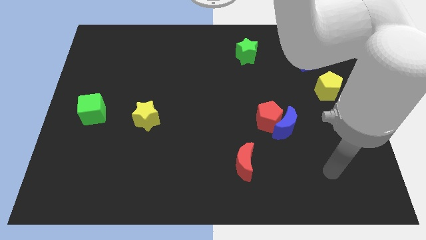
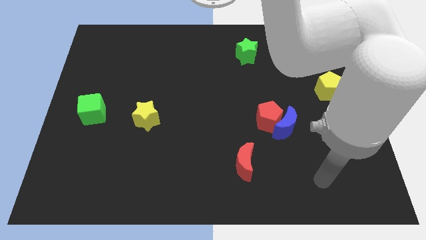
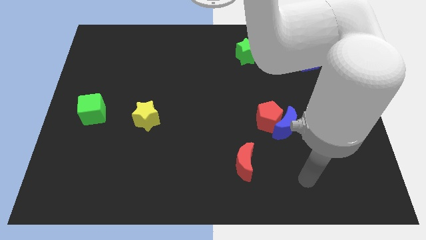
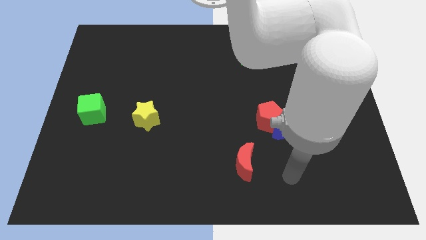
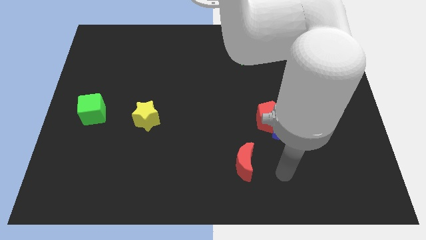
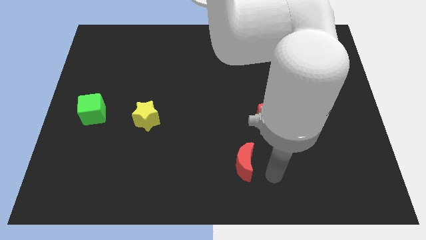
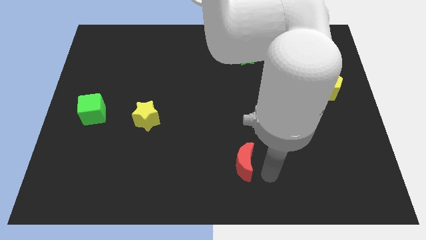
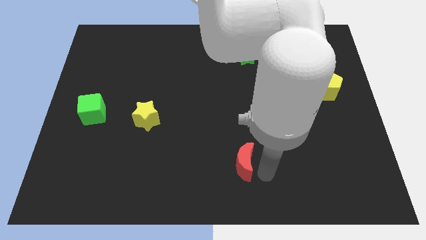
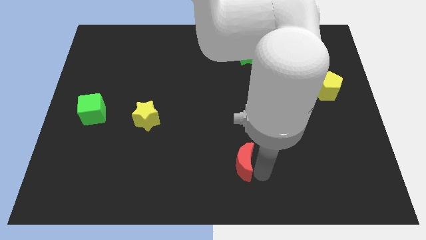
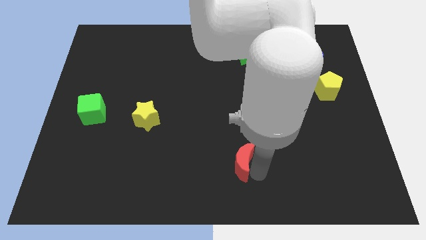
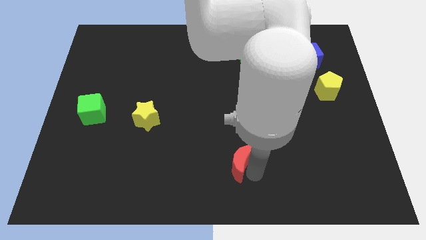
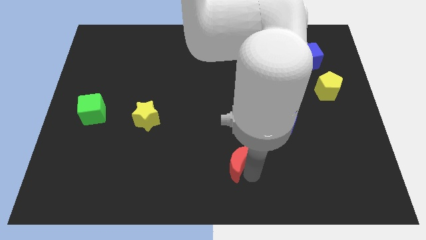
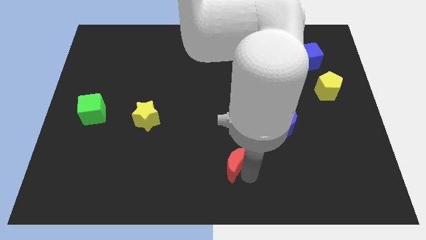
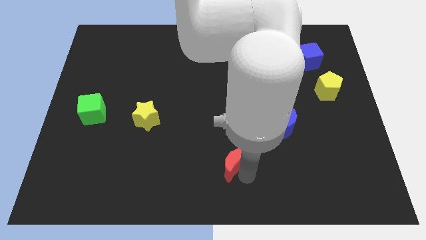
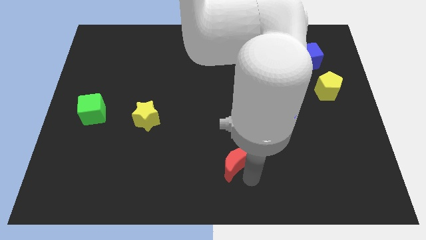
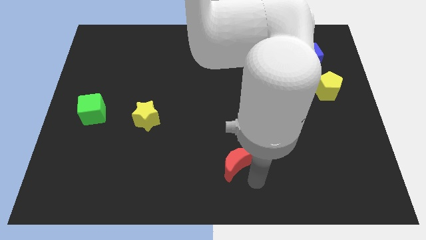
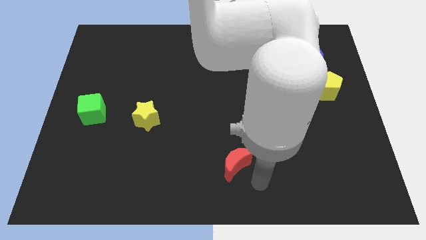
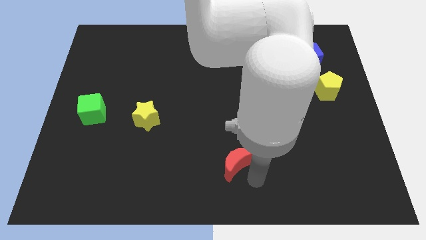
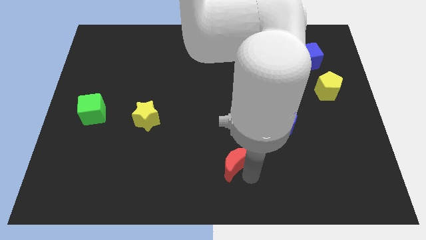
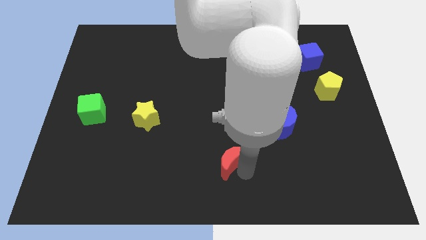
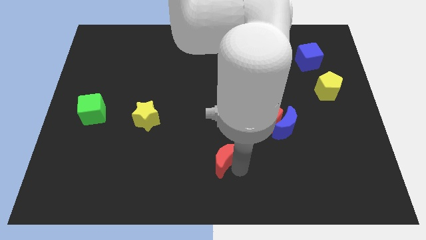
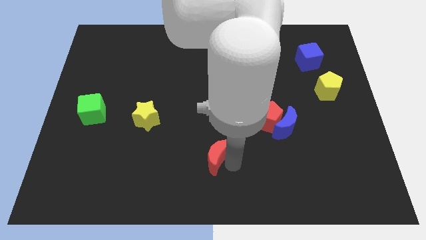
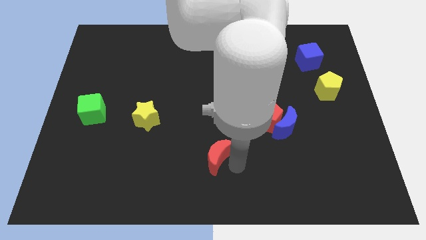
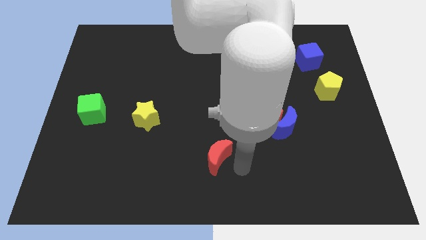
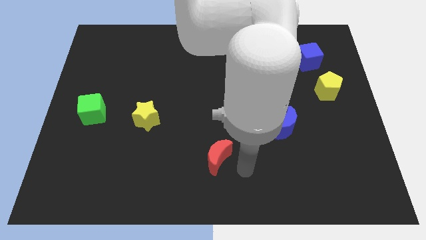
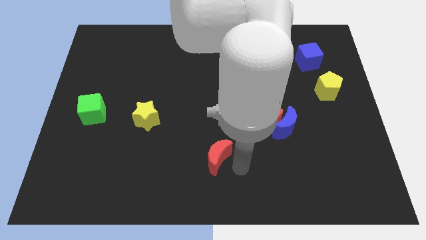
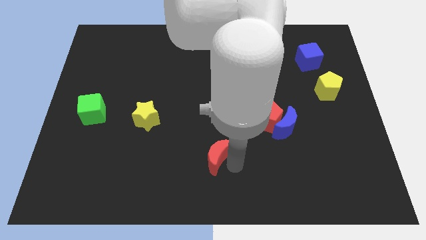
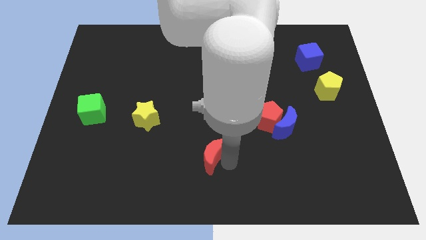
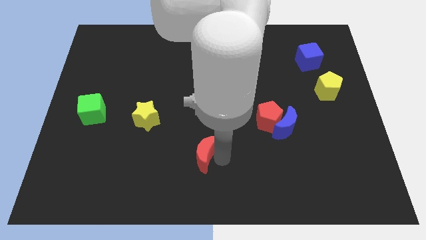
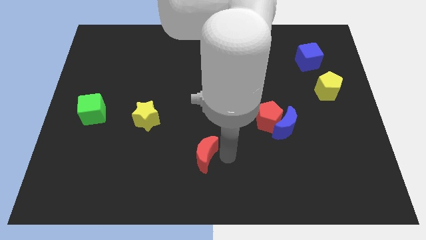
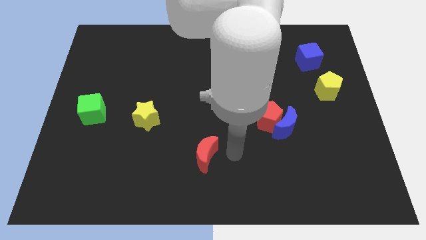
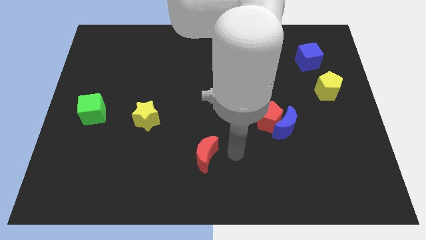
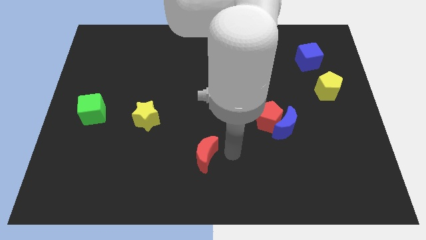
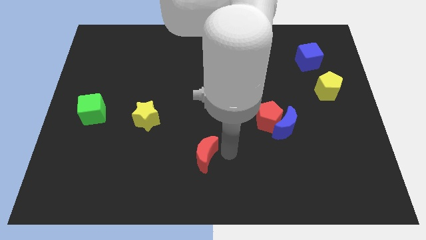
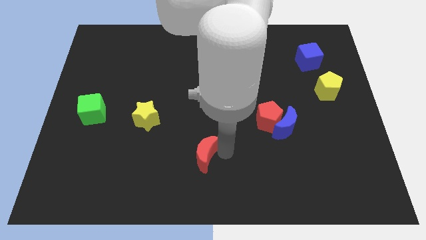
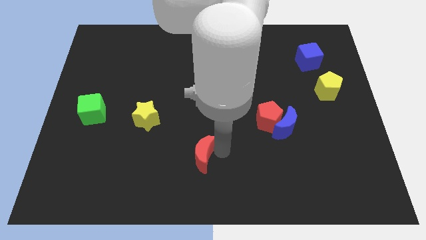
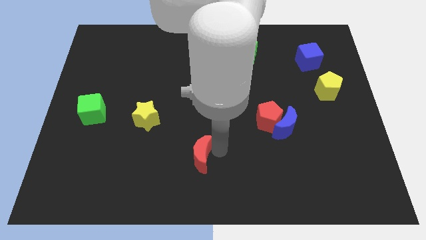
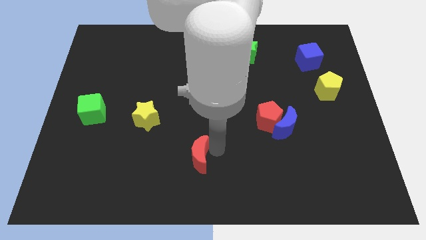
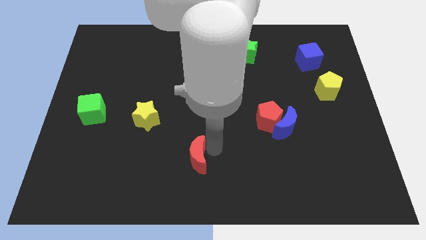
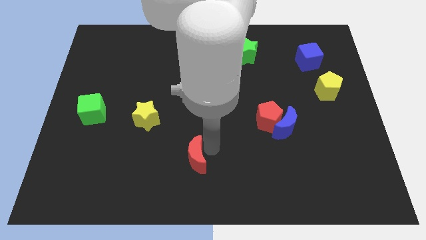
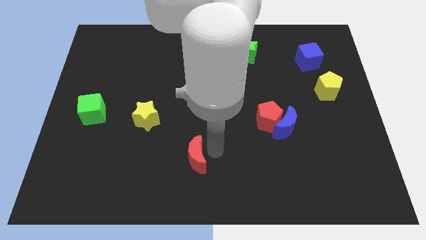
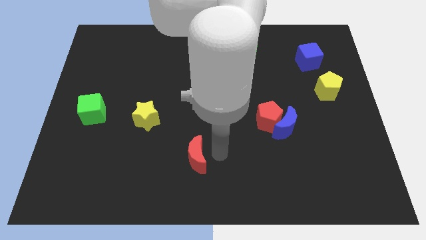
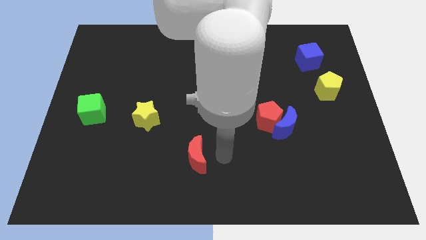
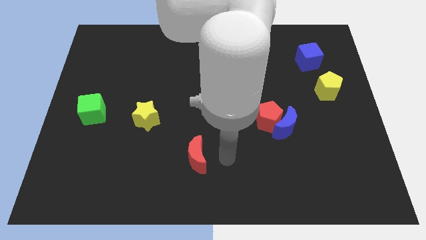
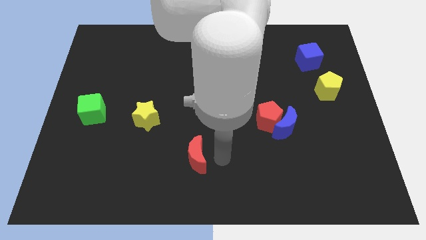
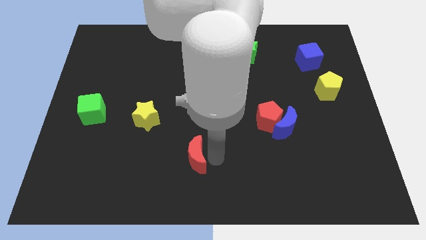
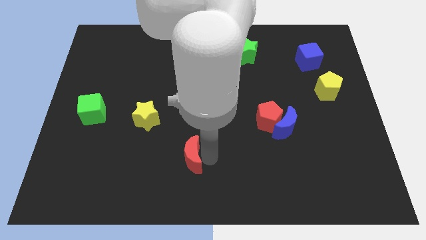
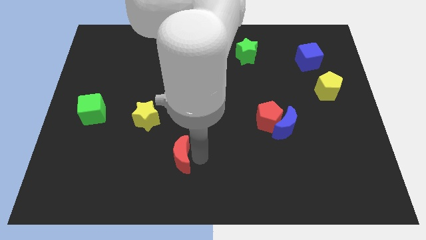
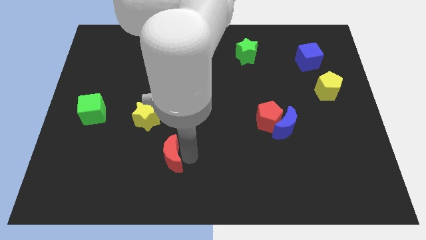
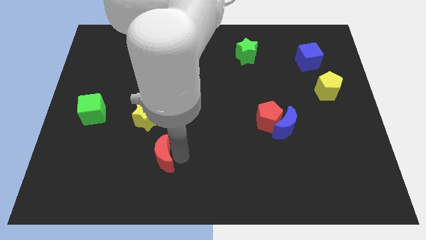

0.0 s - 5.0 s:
push the red moon to the bottom of the yellow star

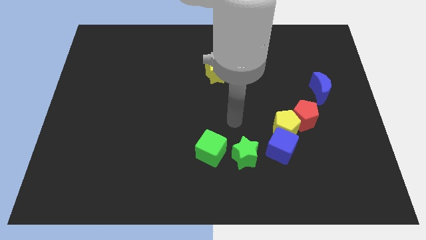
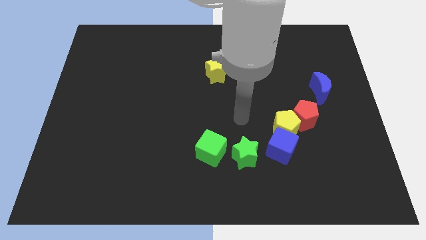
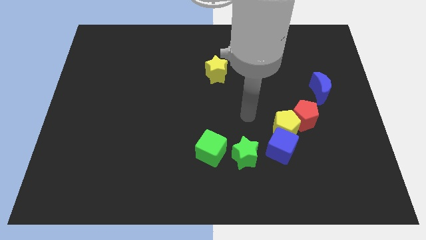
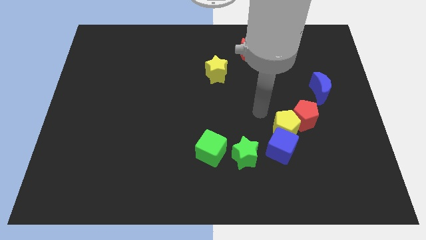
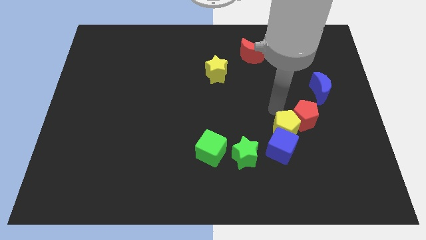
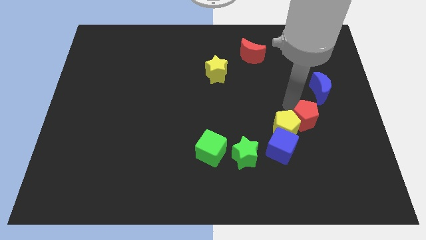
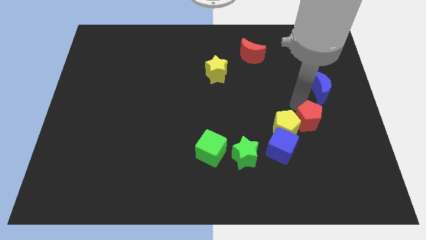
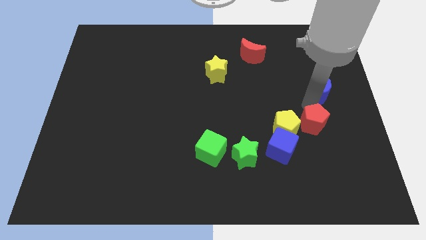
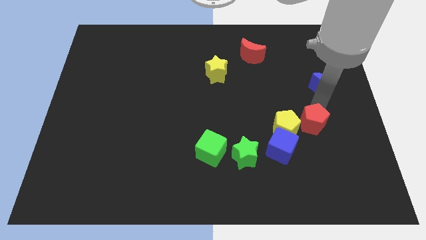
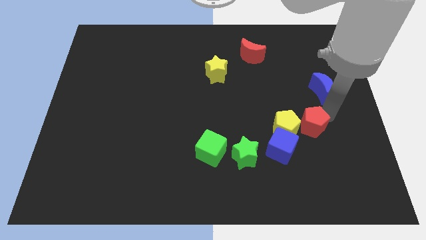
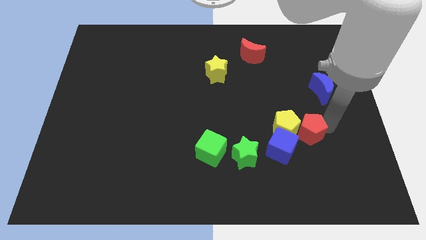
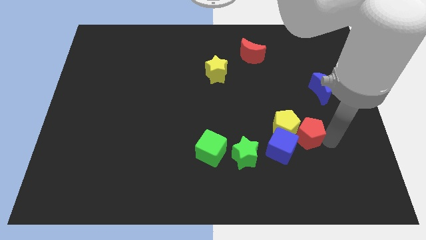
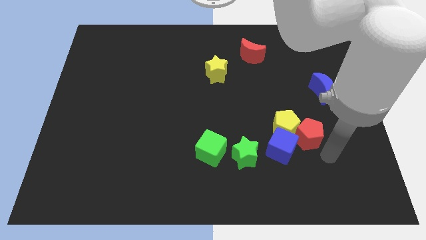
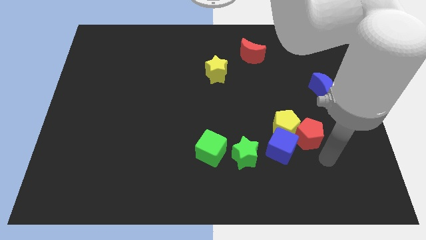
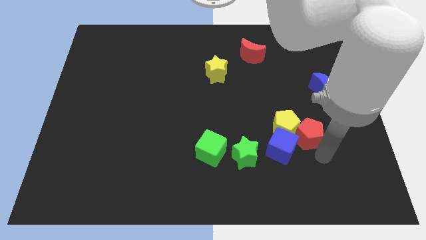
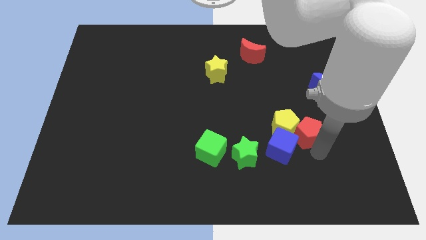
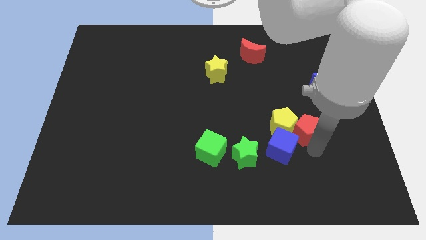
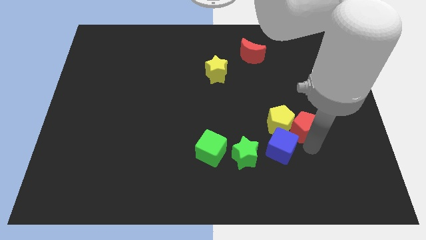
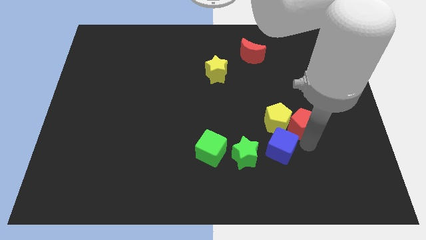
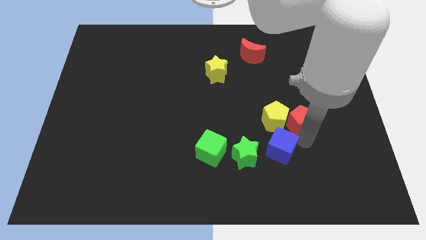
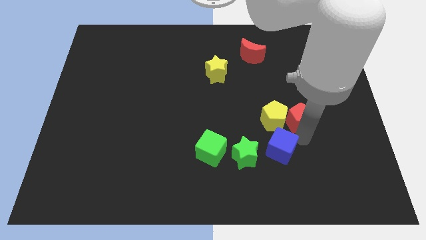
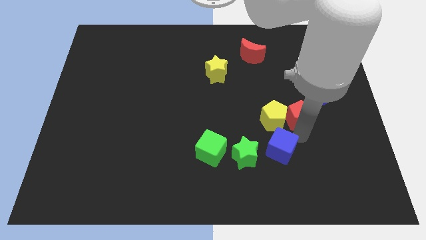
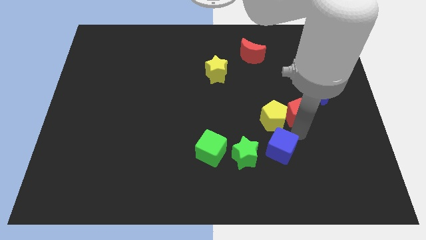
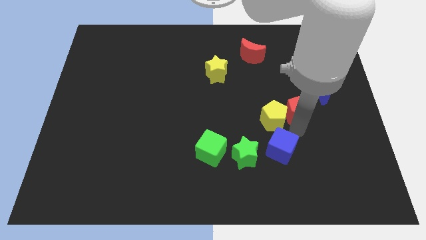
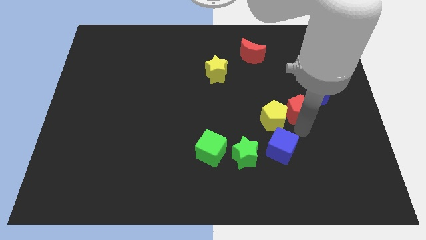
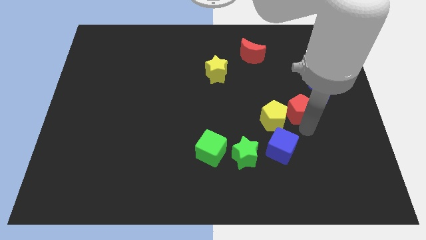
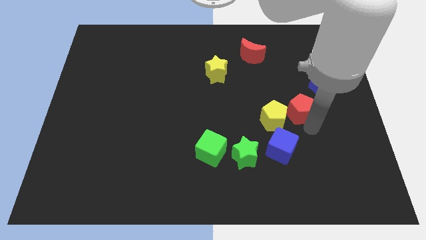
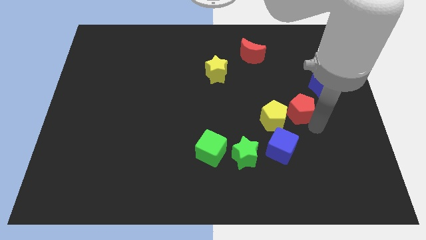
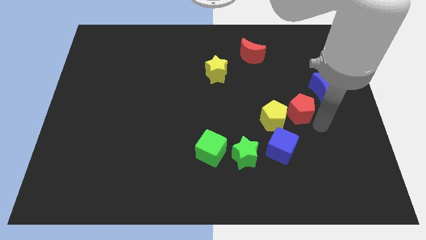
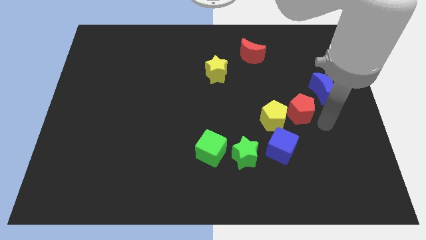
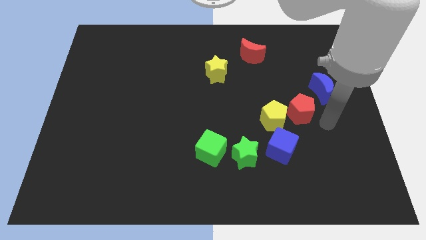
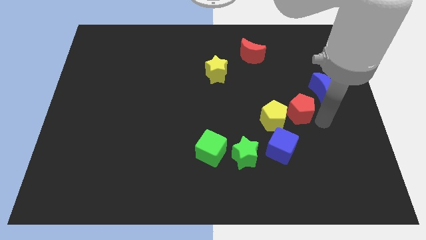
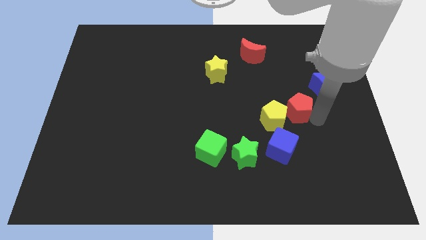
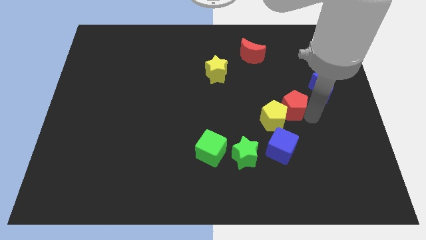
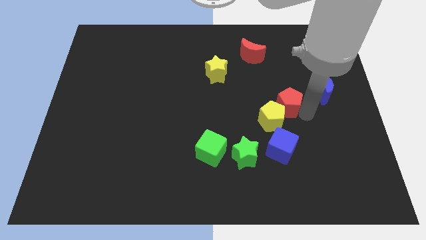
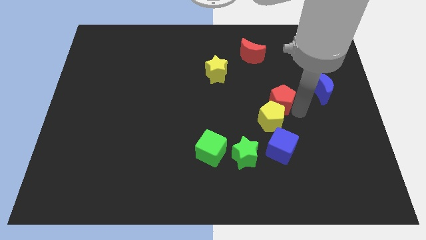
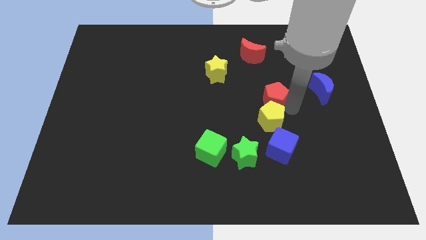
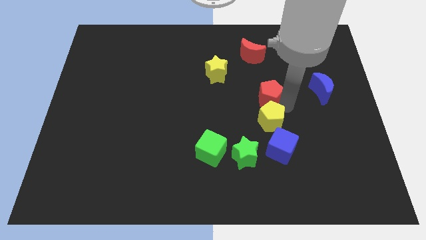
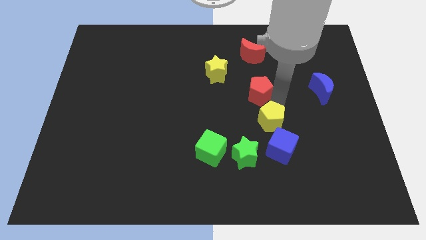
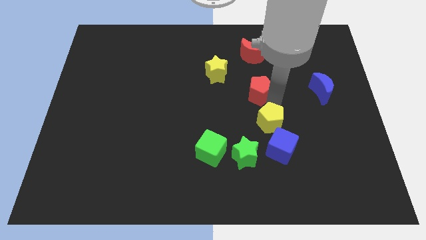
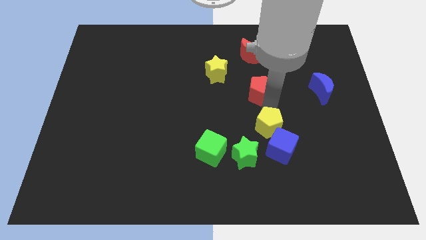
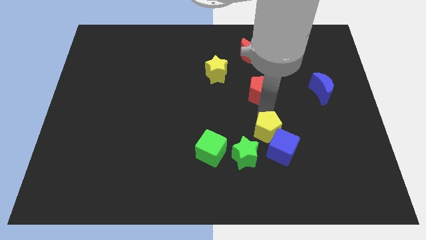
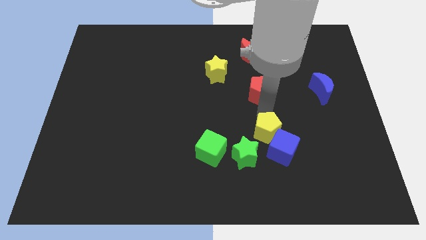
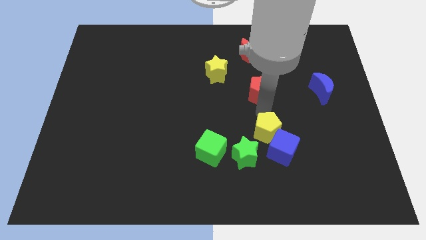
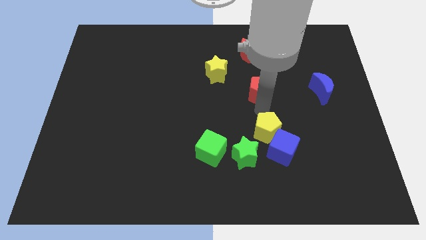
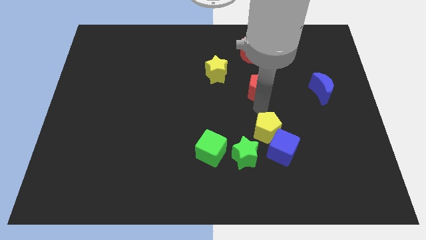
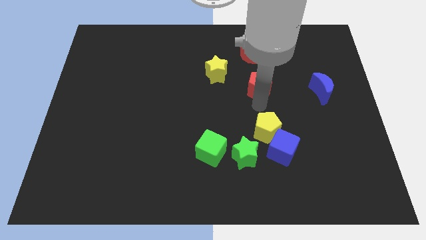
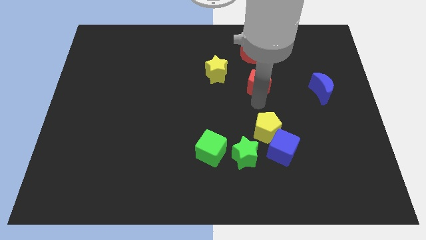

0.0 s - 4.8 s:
slide the red pentagon just right of the yellow star
